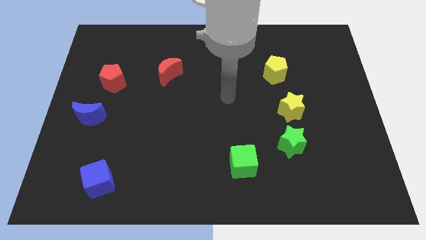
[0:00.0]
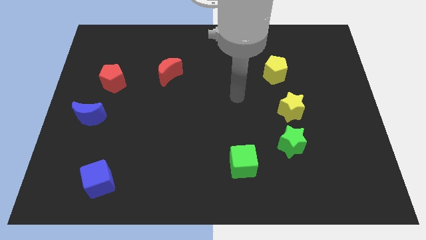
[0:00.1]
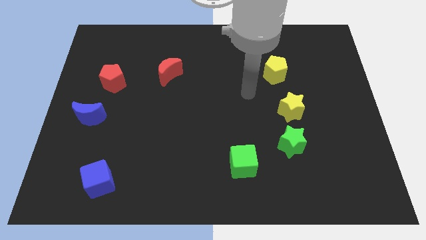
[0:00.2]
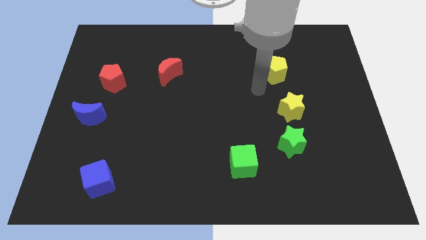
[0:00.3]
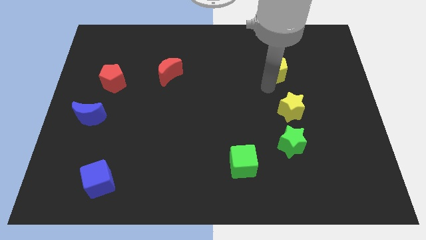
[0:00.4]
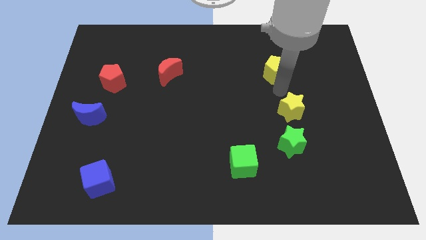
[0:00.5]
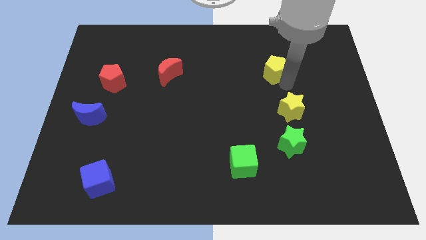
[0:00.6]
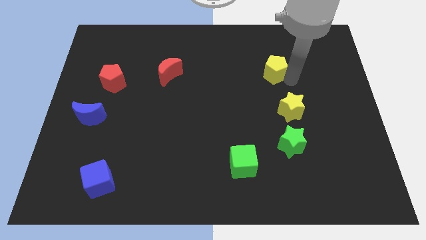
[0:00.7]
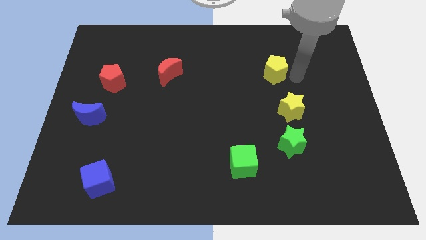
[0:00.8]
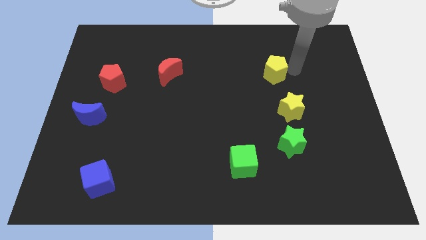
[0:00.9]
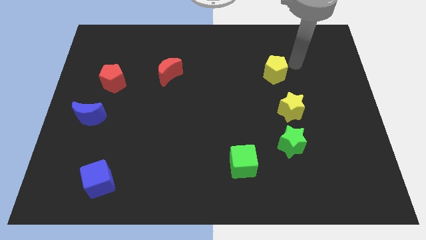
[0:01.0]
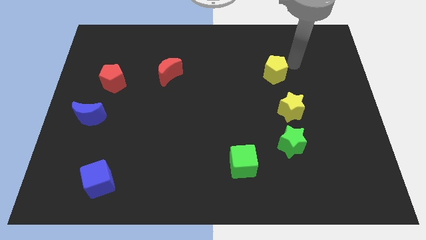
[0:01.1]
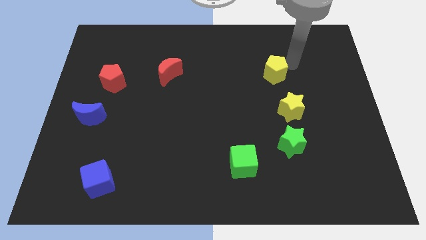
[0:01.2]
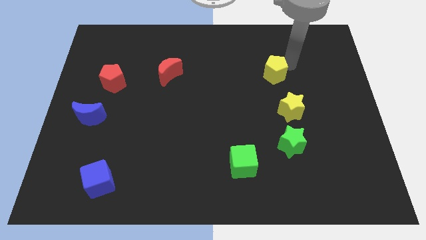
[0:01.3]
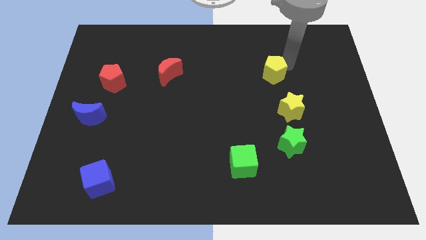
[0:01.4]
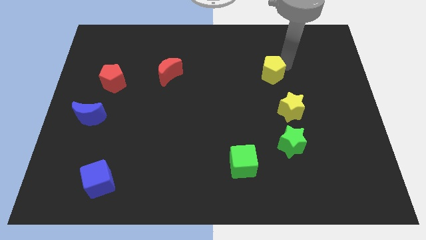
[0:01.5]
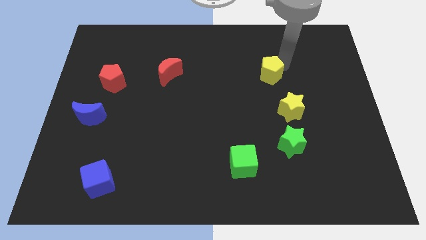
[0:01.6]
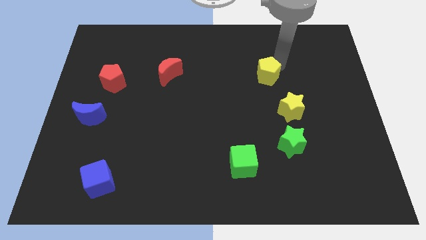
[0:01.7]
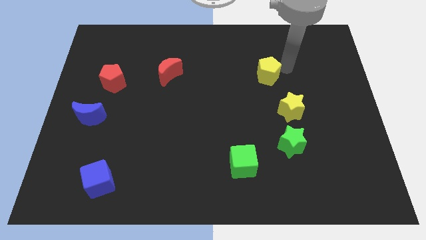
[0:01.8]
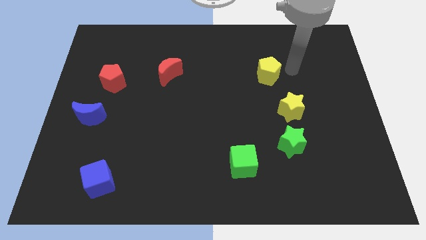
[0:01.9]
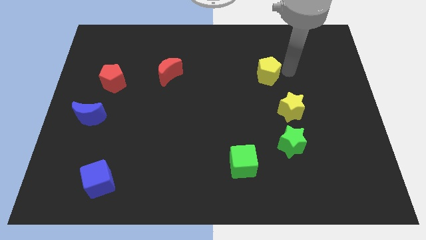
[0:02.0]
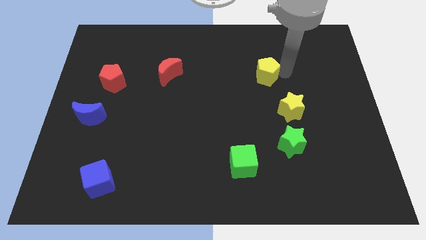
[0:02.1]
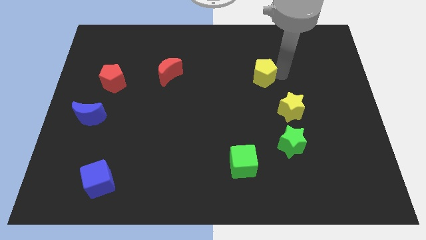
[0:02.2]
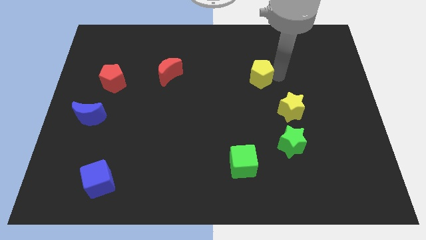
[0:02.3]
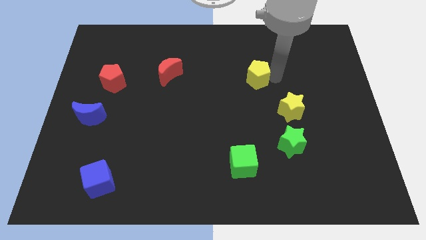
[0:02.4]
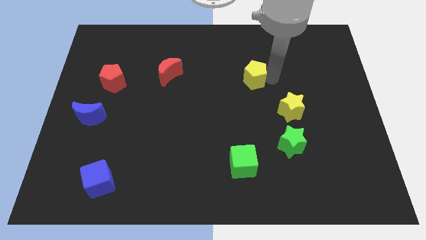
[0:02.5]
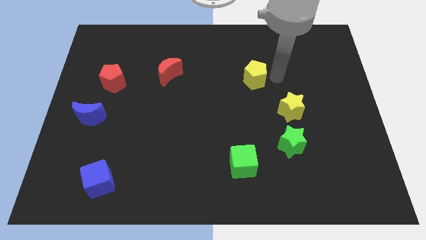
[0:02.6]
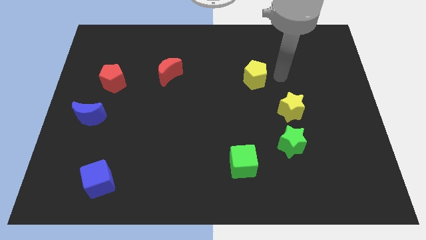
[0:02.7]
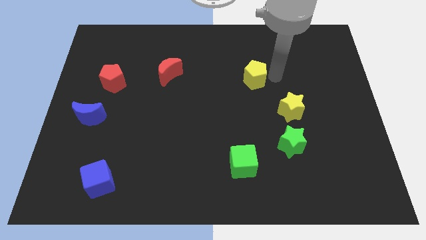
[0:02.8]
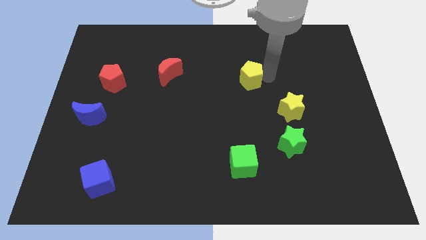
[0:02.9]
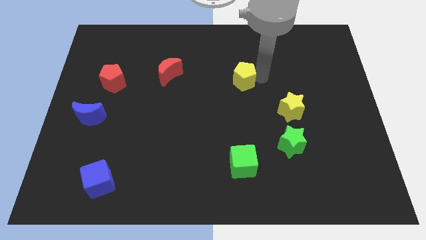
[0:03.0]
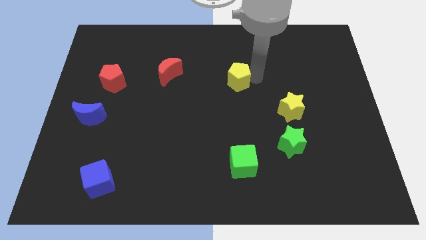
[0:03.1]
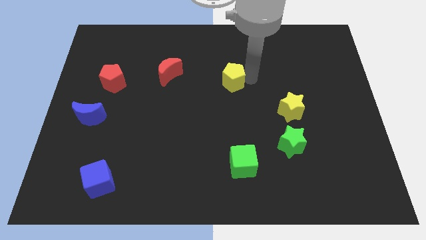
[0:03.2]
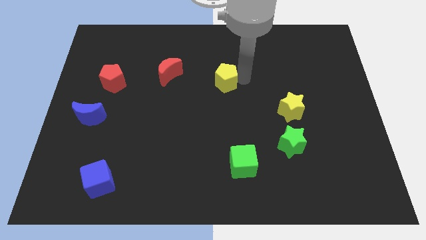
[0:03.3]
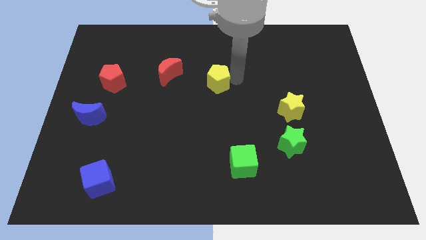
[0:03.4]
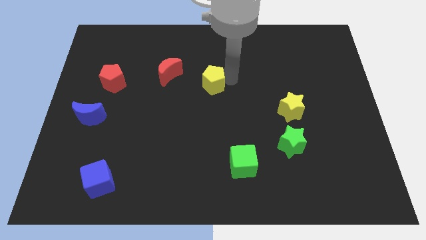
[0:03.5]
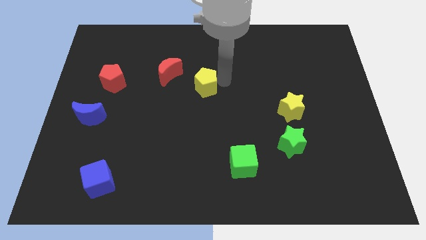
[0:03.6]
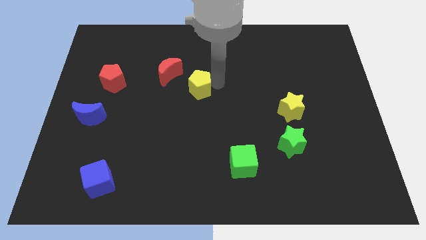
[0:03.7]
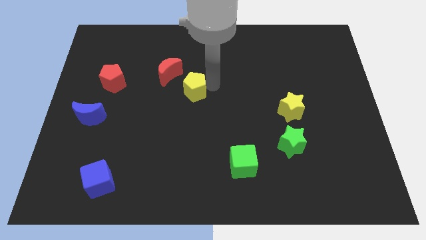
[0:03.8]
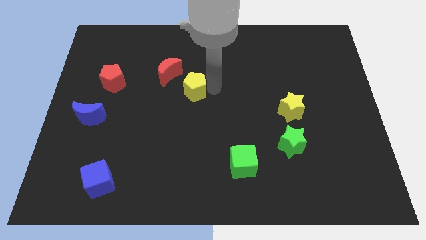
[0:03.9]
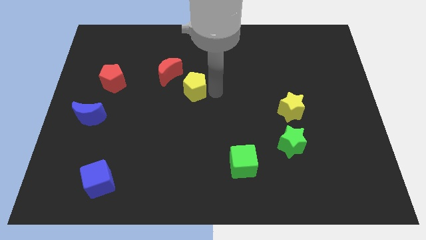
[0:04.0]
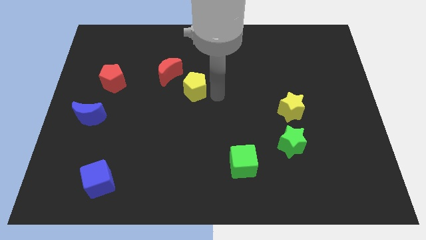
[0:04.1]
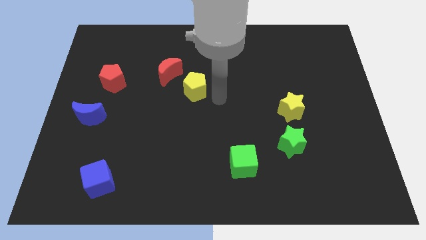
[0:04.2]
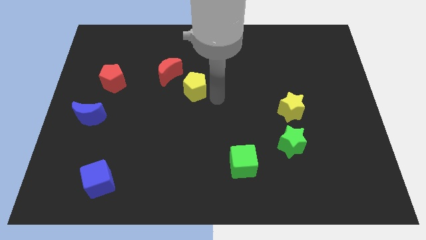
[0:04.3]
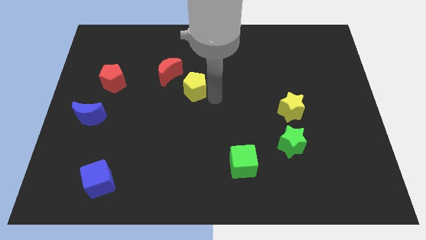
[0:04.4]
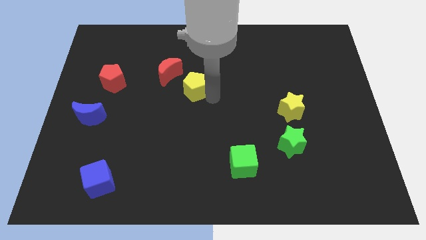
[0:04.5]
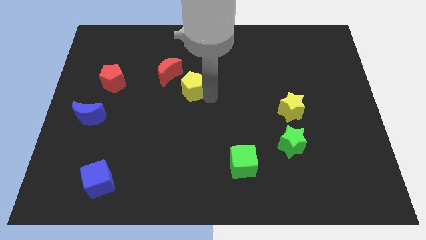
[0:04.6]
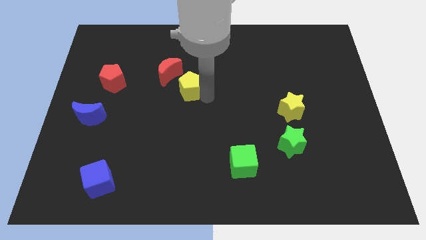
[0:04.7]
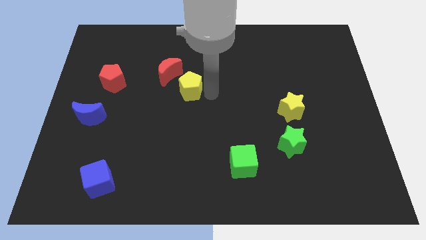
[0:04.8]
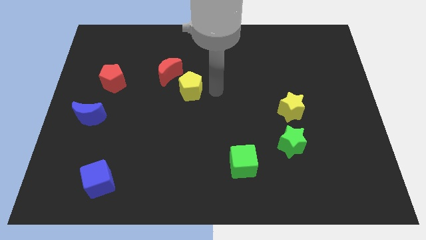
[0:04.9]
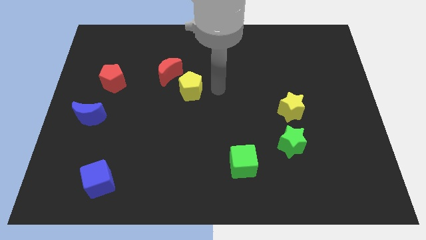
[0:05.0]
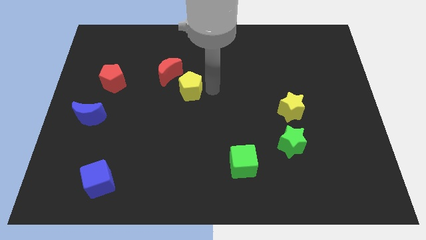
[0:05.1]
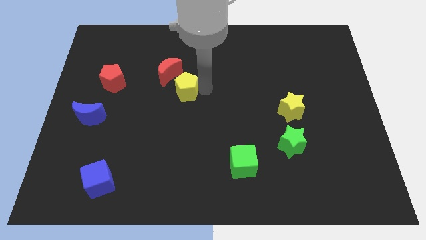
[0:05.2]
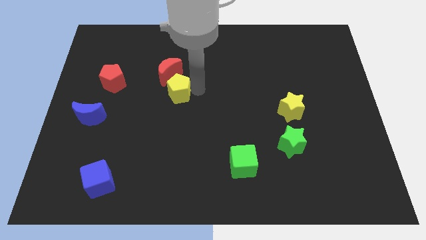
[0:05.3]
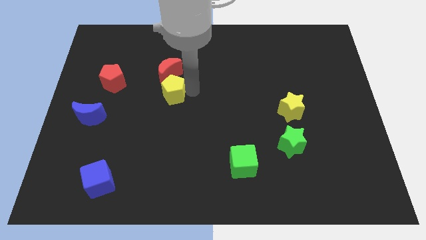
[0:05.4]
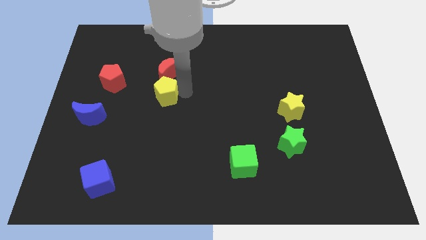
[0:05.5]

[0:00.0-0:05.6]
push the yellow pentagon to the bottom left of the red moon

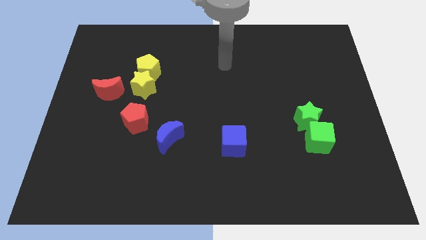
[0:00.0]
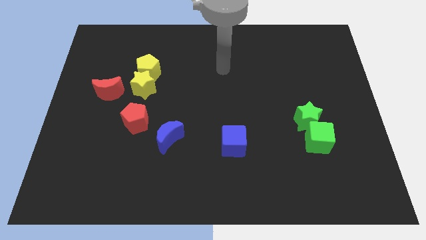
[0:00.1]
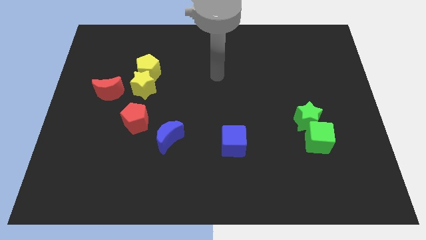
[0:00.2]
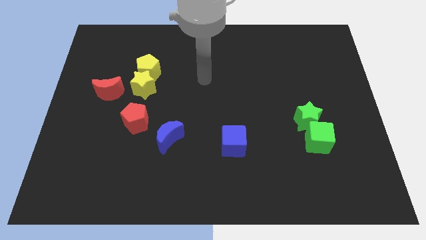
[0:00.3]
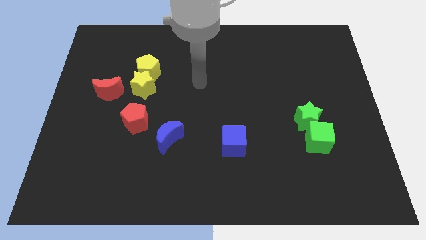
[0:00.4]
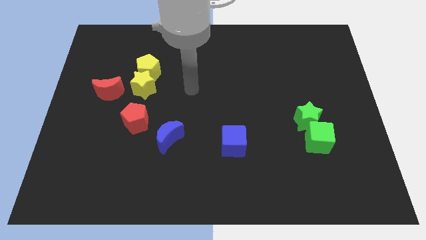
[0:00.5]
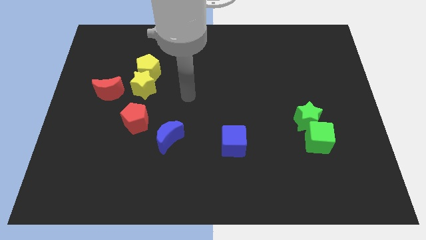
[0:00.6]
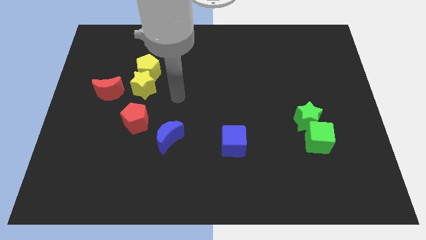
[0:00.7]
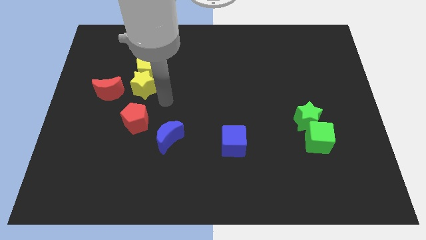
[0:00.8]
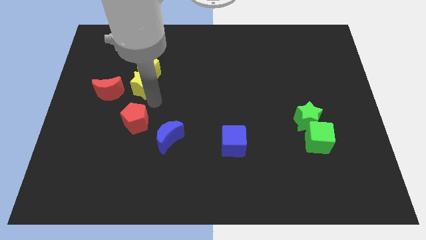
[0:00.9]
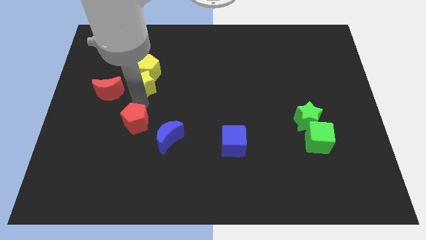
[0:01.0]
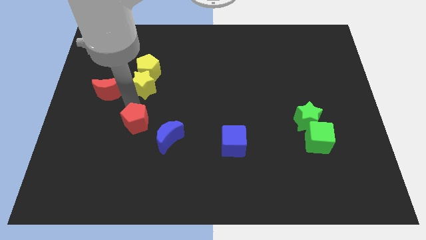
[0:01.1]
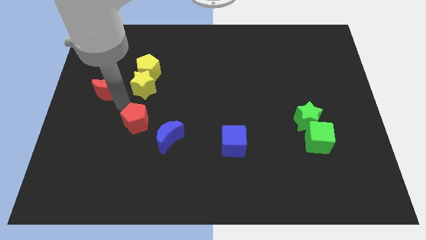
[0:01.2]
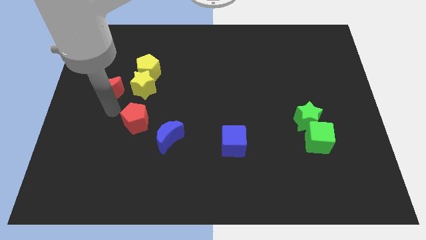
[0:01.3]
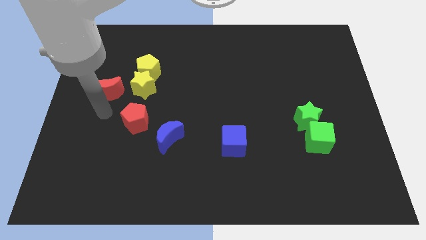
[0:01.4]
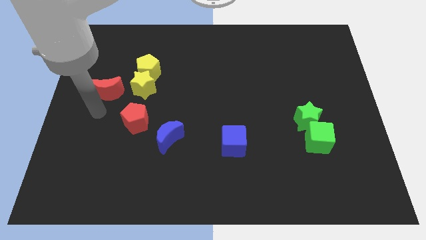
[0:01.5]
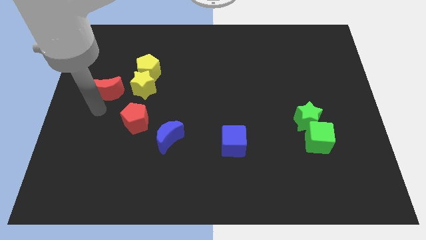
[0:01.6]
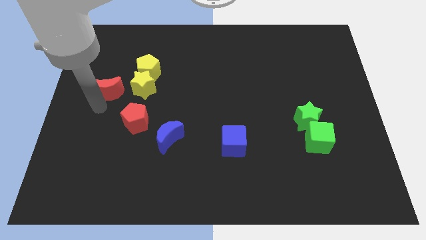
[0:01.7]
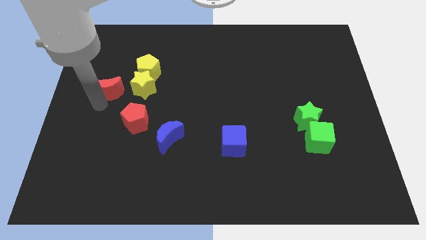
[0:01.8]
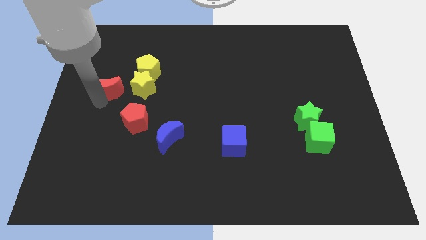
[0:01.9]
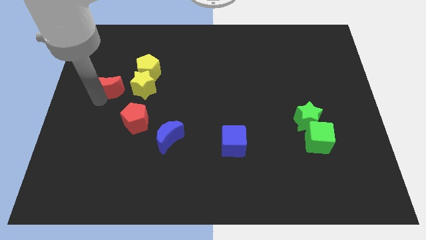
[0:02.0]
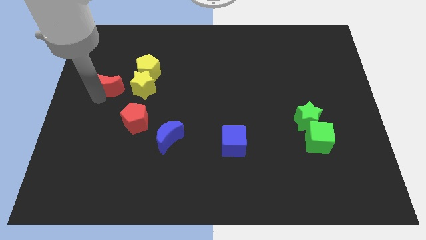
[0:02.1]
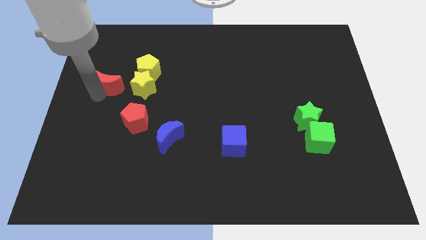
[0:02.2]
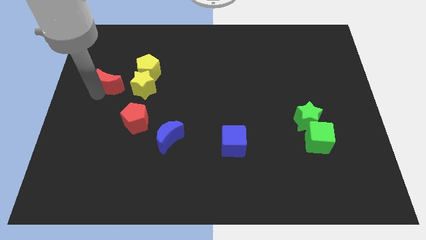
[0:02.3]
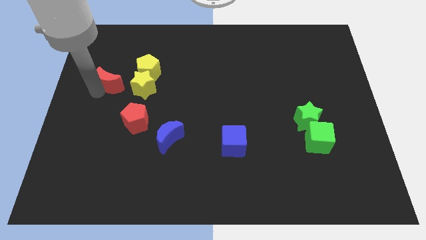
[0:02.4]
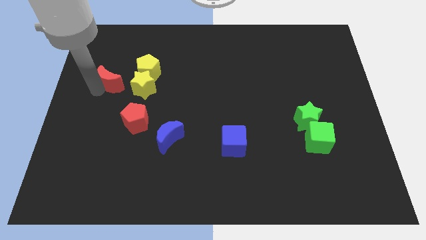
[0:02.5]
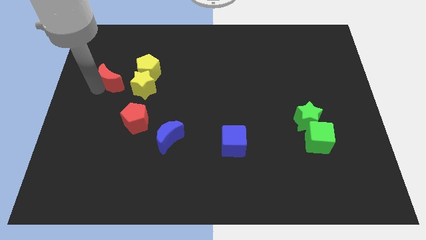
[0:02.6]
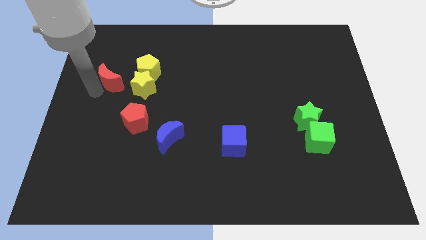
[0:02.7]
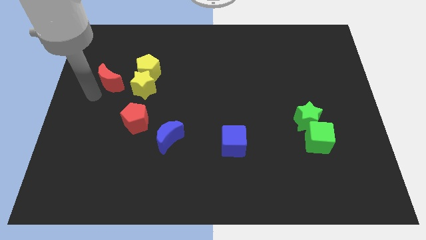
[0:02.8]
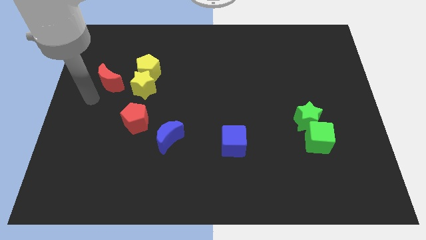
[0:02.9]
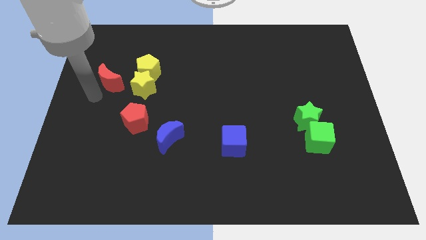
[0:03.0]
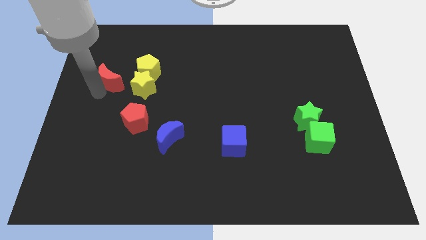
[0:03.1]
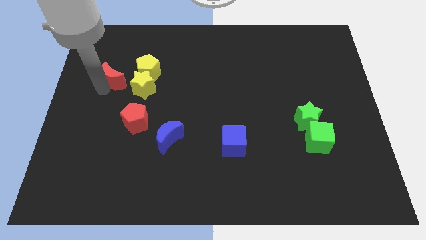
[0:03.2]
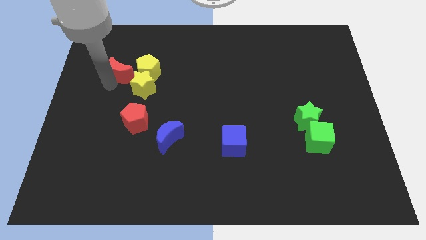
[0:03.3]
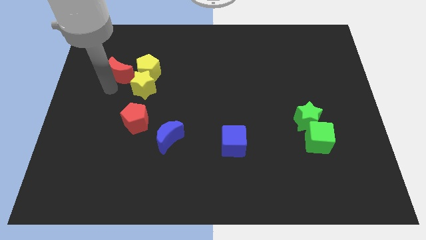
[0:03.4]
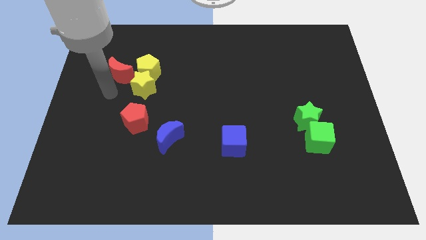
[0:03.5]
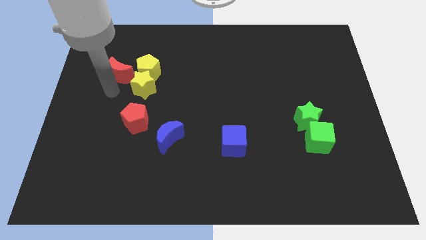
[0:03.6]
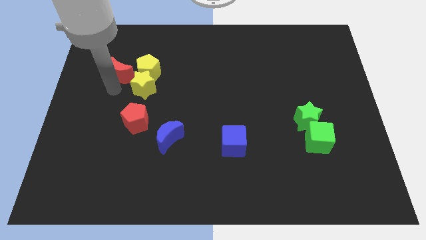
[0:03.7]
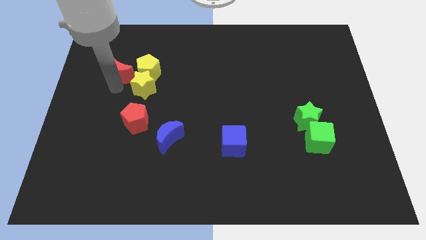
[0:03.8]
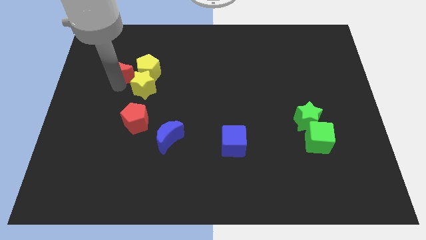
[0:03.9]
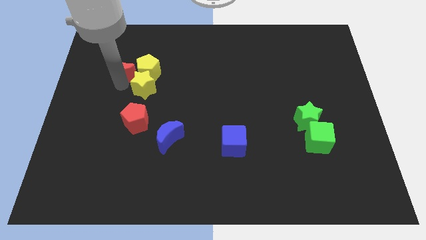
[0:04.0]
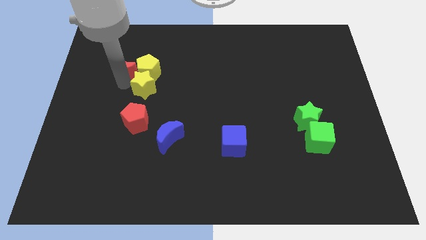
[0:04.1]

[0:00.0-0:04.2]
slide the red moon diagonally up and to the left of the yellow pentagon
